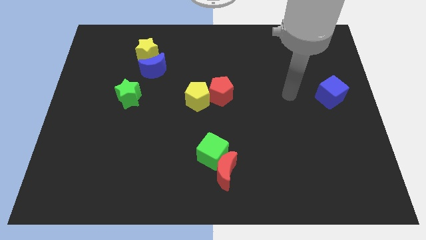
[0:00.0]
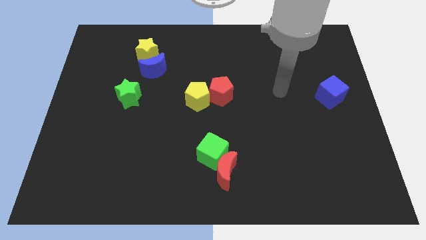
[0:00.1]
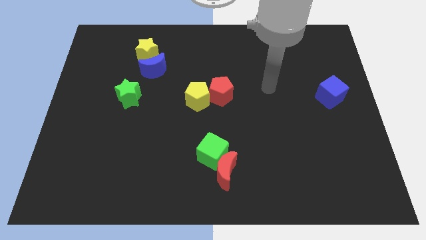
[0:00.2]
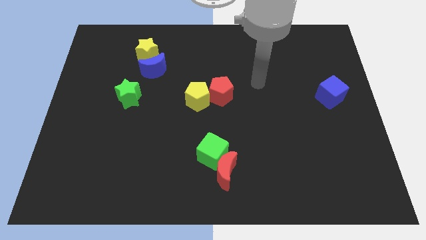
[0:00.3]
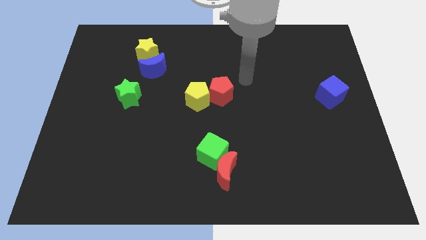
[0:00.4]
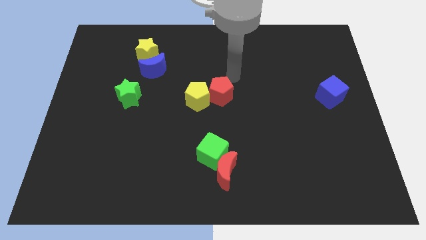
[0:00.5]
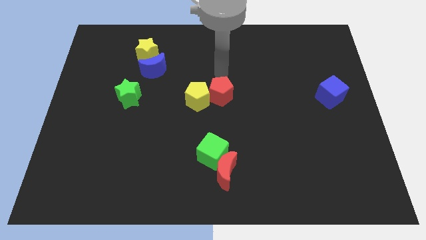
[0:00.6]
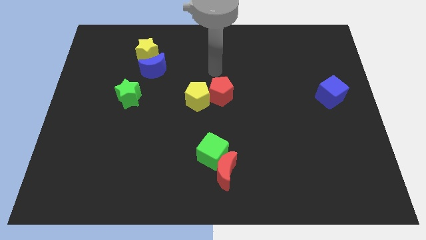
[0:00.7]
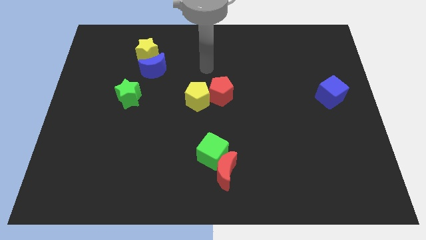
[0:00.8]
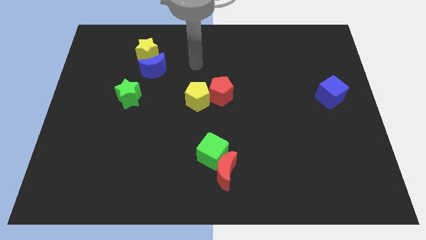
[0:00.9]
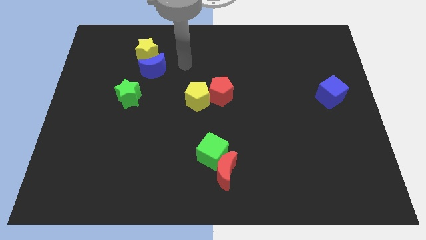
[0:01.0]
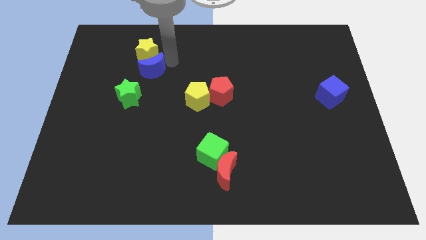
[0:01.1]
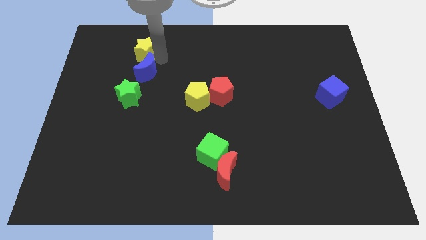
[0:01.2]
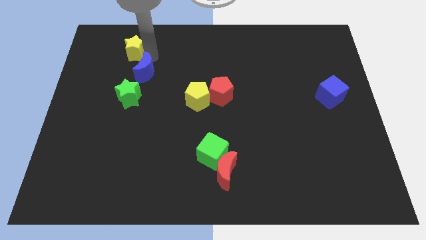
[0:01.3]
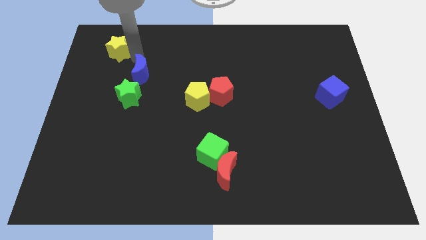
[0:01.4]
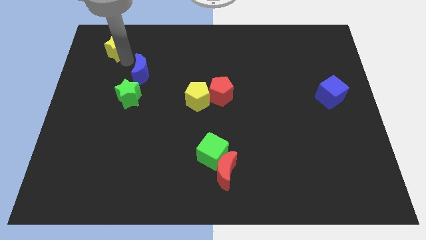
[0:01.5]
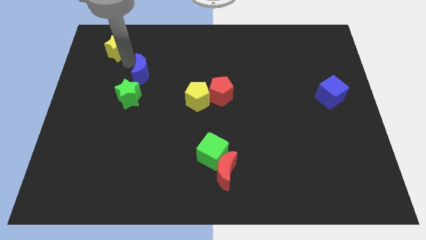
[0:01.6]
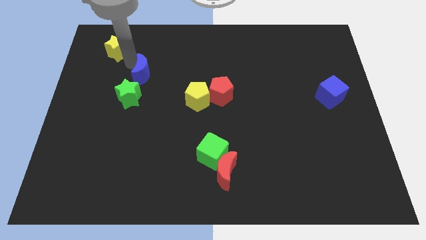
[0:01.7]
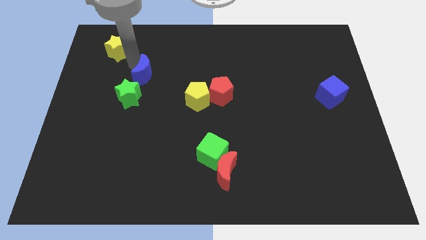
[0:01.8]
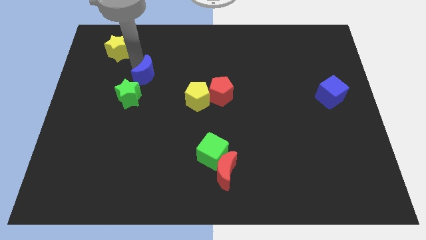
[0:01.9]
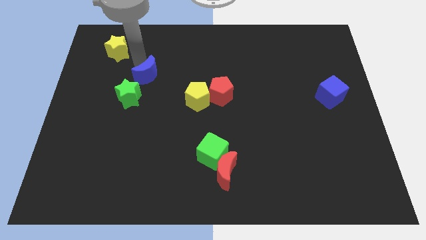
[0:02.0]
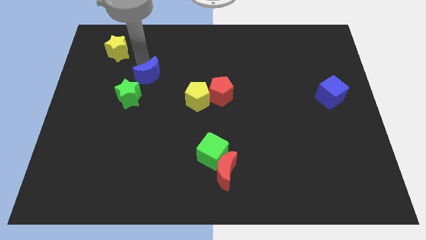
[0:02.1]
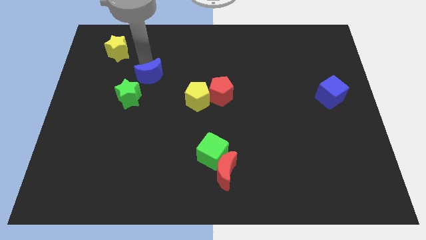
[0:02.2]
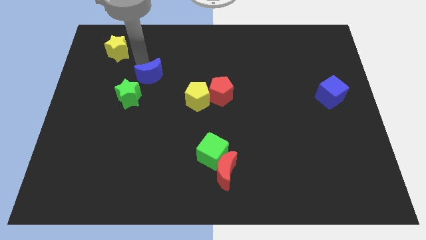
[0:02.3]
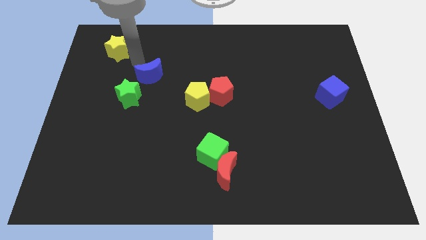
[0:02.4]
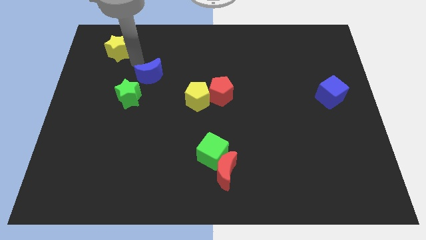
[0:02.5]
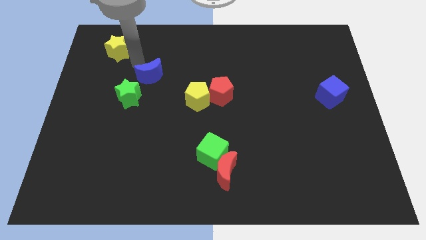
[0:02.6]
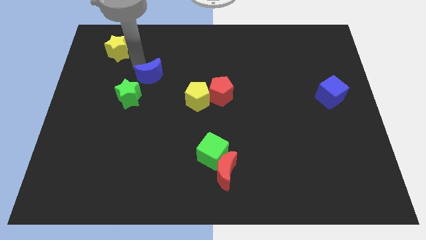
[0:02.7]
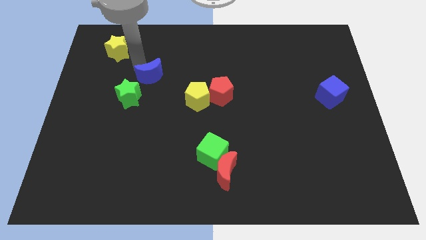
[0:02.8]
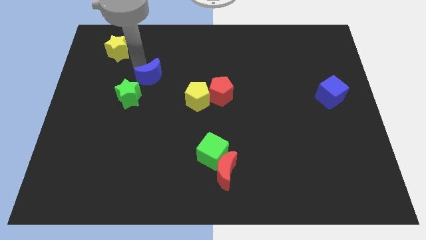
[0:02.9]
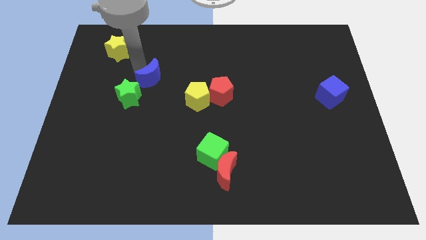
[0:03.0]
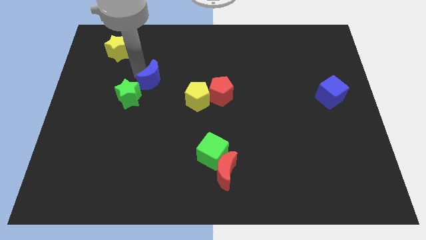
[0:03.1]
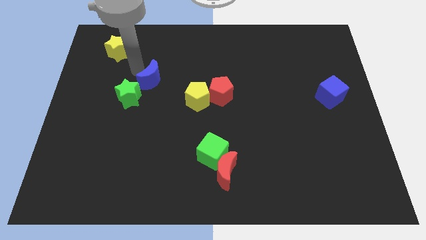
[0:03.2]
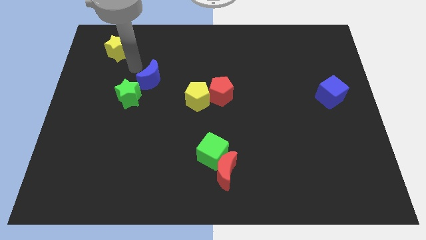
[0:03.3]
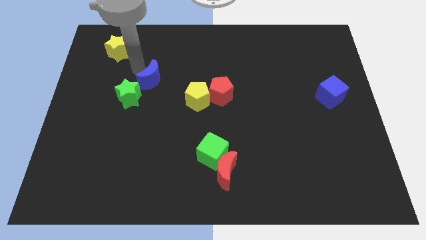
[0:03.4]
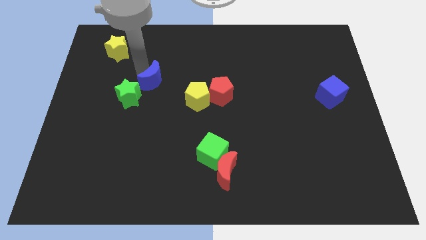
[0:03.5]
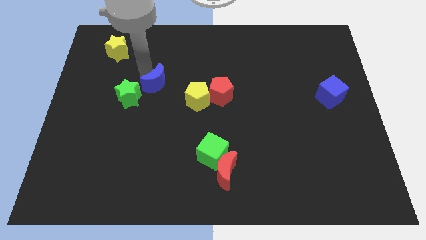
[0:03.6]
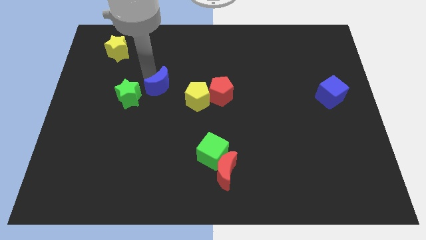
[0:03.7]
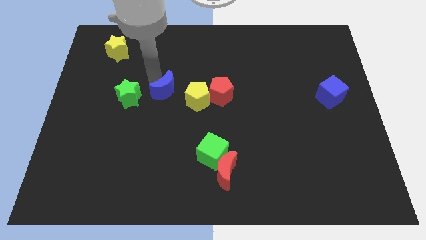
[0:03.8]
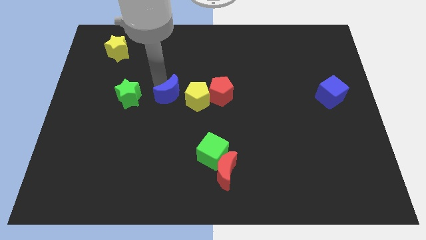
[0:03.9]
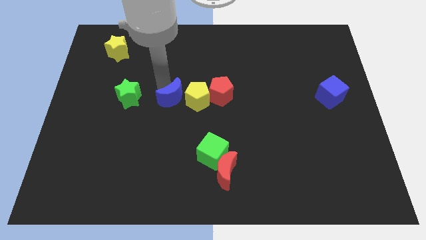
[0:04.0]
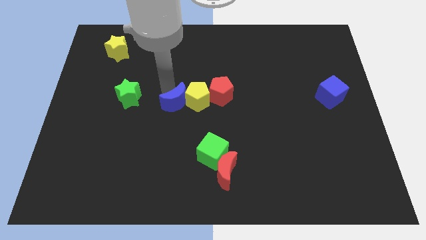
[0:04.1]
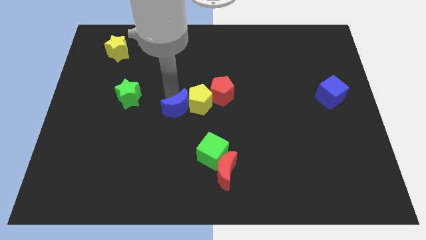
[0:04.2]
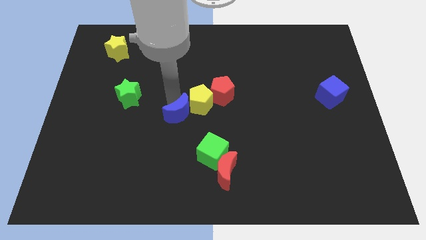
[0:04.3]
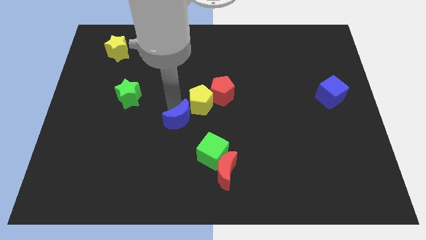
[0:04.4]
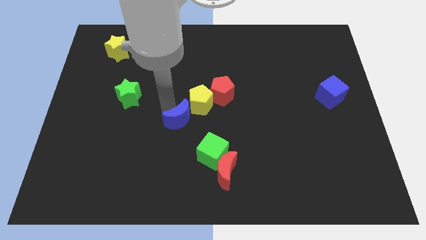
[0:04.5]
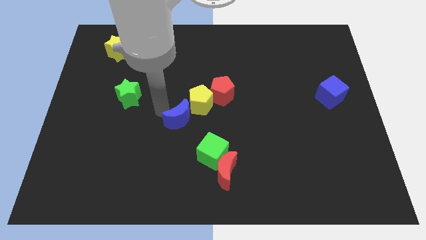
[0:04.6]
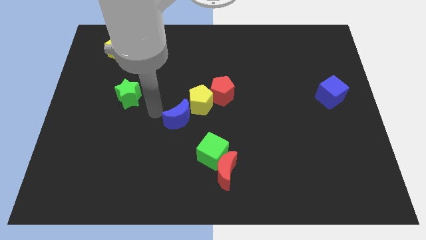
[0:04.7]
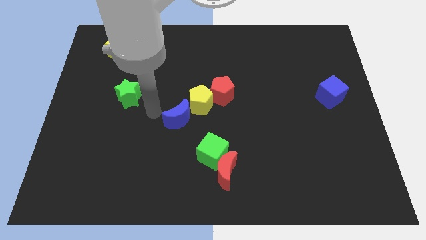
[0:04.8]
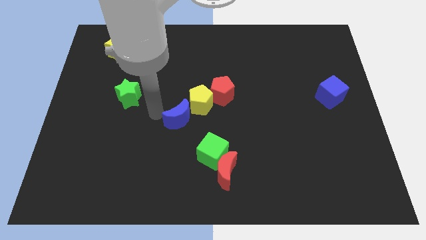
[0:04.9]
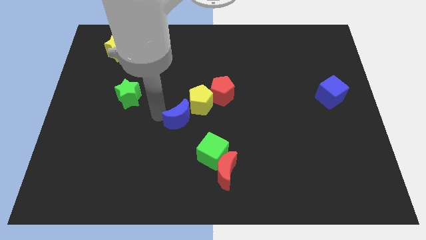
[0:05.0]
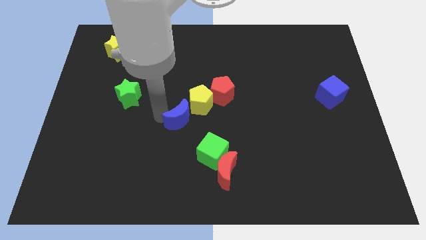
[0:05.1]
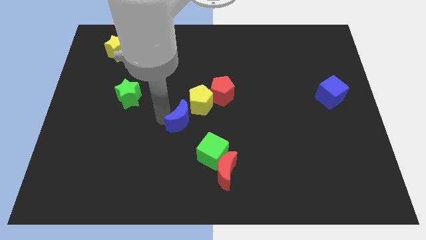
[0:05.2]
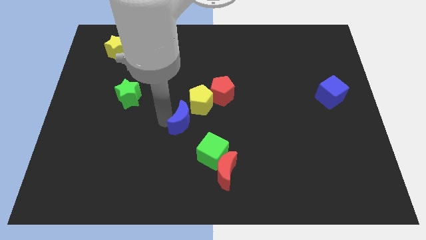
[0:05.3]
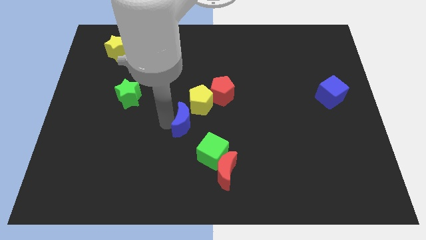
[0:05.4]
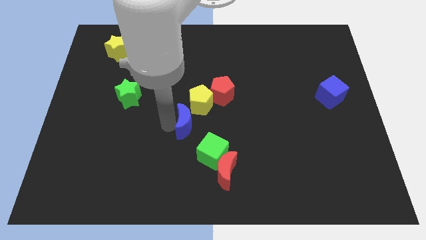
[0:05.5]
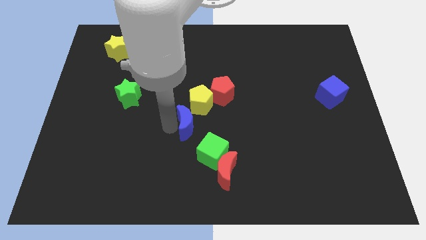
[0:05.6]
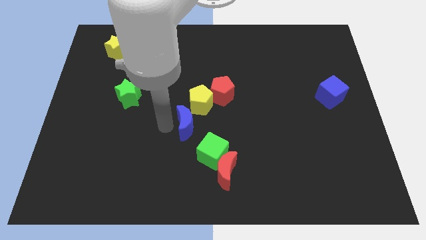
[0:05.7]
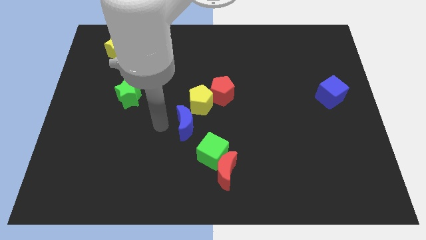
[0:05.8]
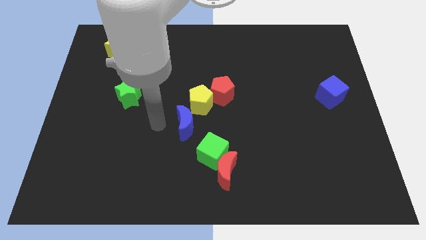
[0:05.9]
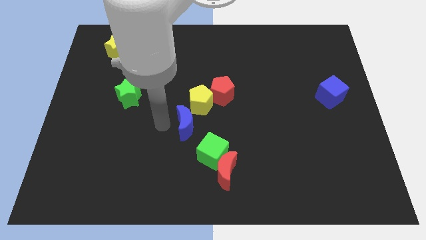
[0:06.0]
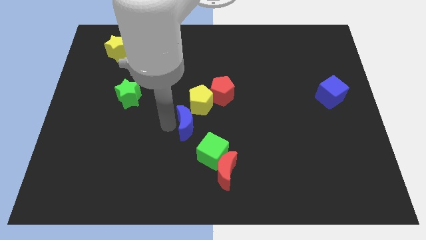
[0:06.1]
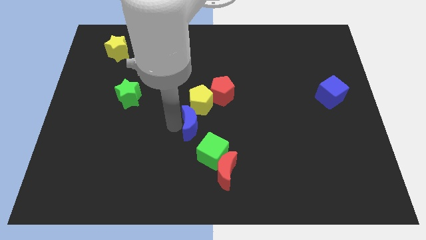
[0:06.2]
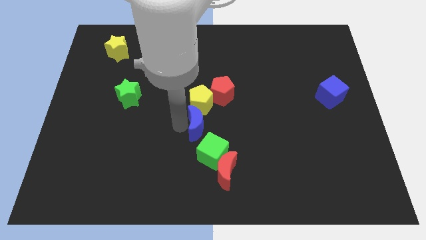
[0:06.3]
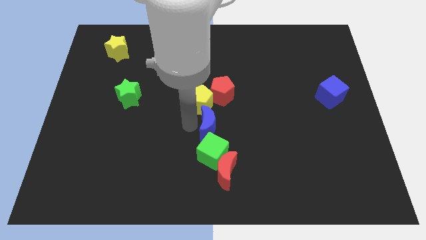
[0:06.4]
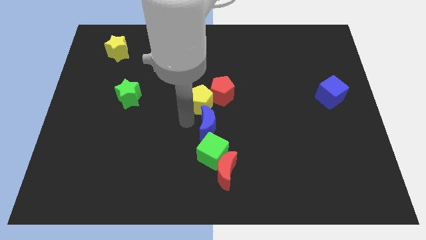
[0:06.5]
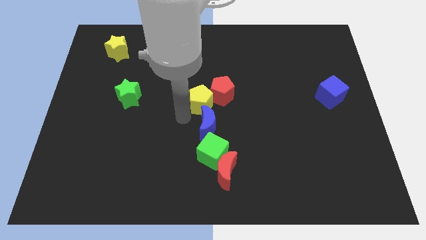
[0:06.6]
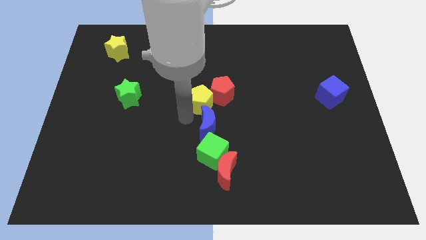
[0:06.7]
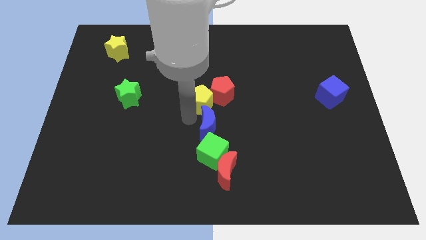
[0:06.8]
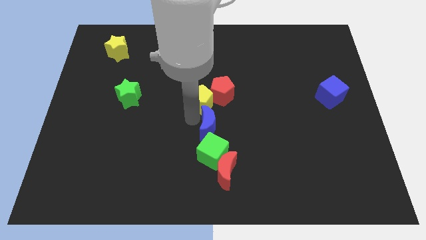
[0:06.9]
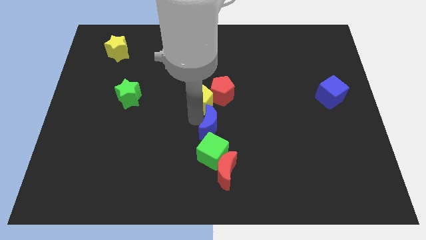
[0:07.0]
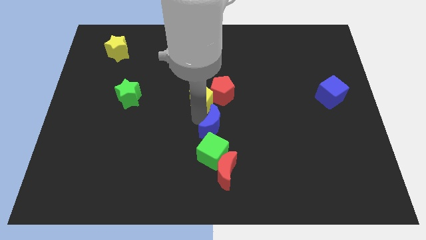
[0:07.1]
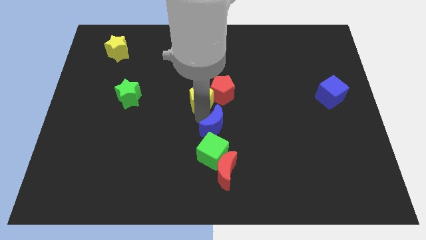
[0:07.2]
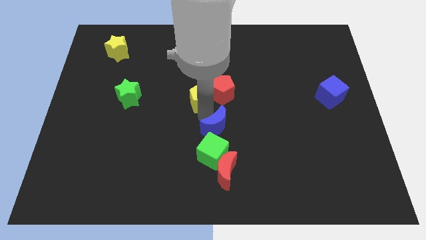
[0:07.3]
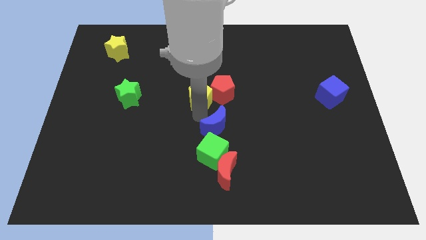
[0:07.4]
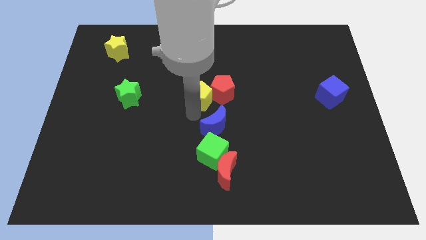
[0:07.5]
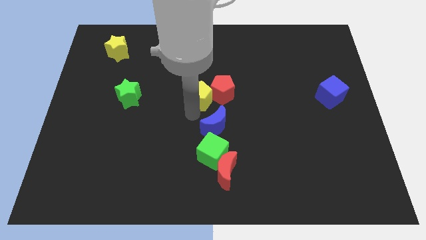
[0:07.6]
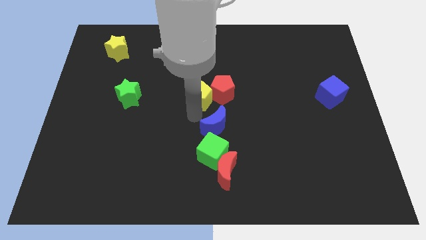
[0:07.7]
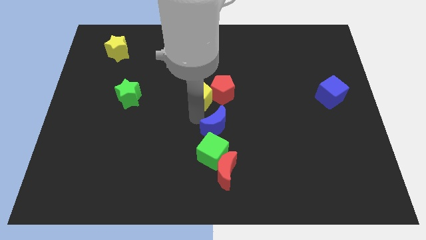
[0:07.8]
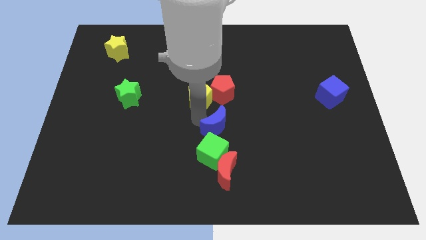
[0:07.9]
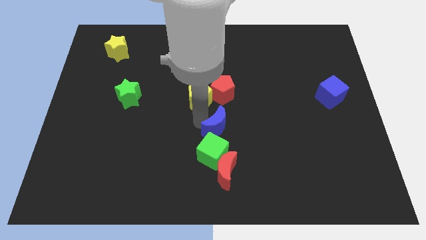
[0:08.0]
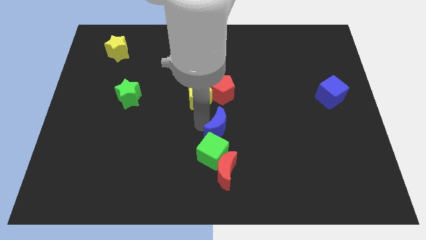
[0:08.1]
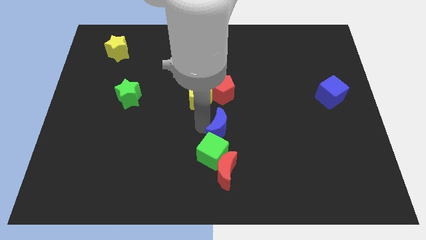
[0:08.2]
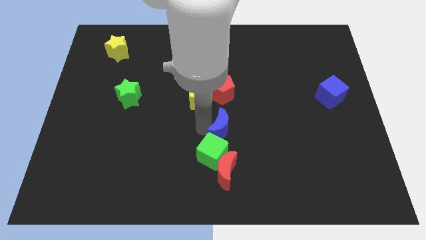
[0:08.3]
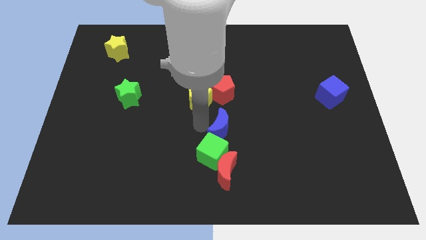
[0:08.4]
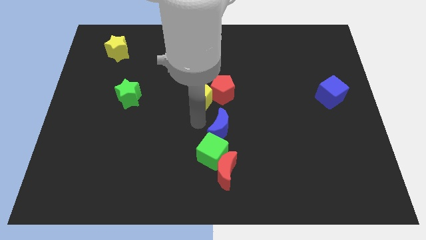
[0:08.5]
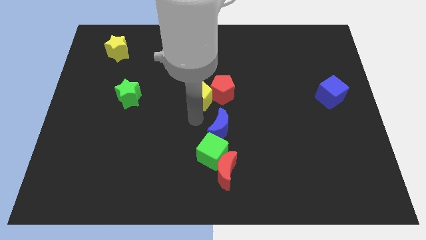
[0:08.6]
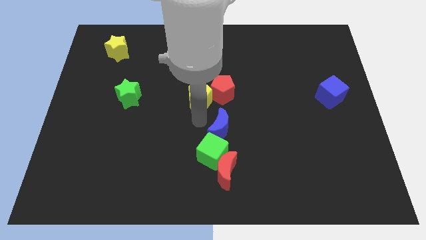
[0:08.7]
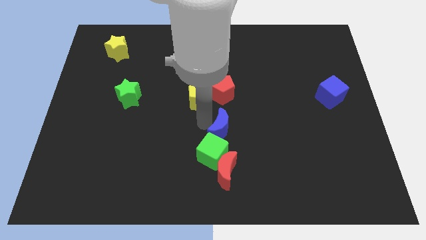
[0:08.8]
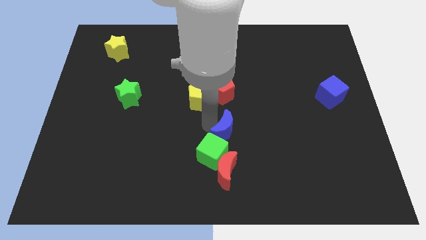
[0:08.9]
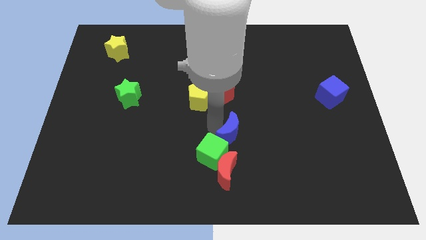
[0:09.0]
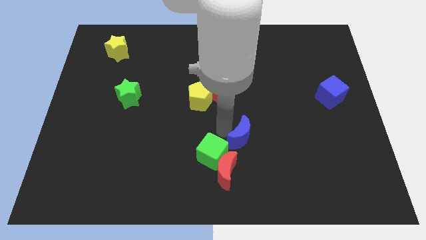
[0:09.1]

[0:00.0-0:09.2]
slide the blue moon right of the green cube
